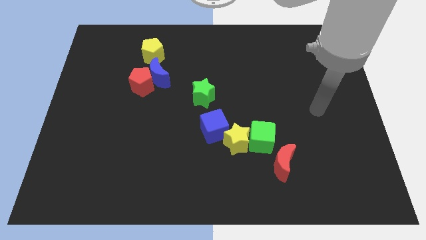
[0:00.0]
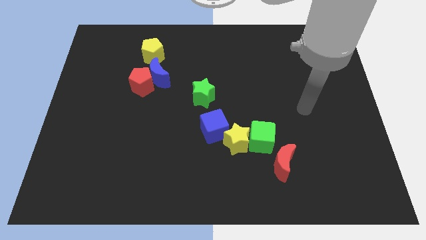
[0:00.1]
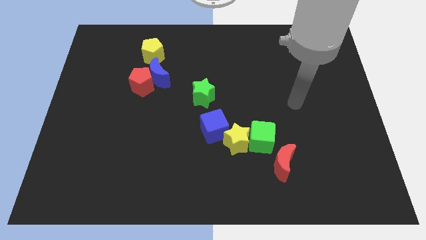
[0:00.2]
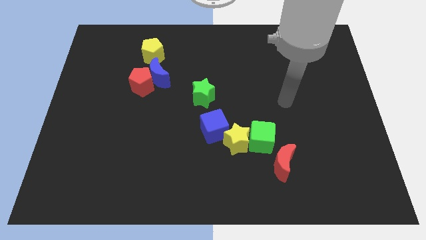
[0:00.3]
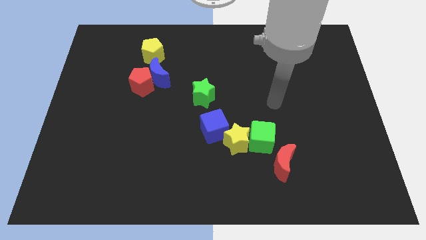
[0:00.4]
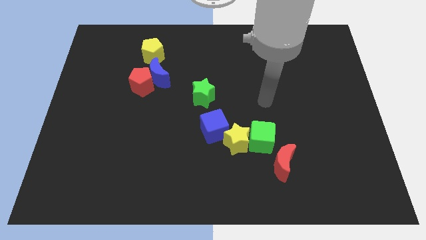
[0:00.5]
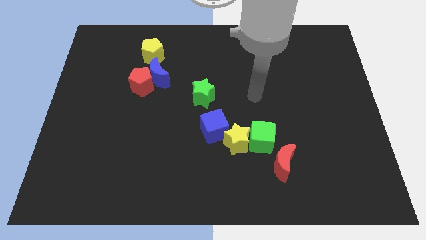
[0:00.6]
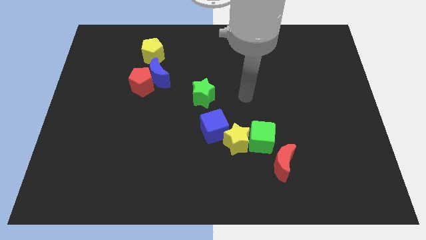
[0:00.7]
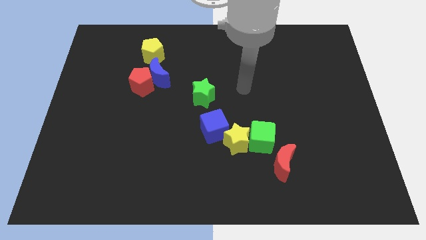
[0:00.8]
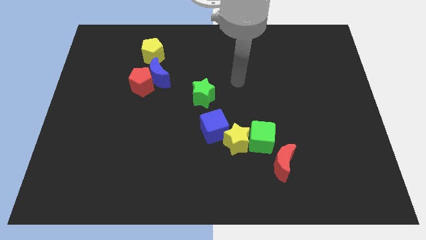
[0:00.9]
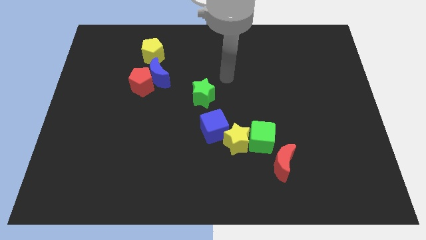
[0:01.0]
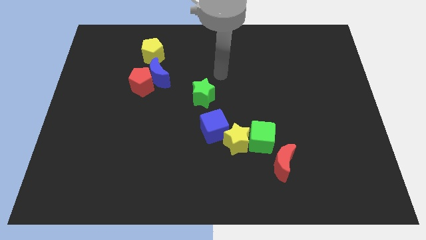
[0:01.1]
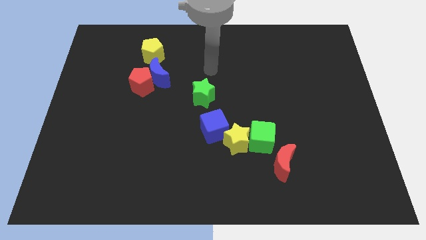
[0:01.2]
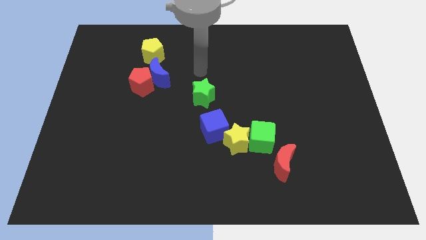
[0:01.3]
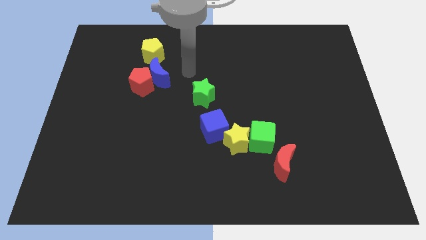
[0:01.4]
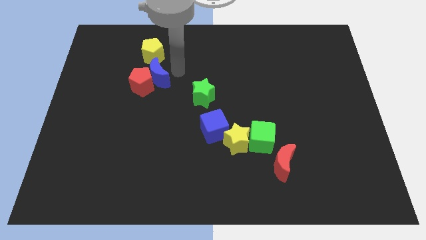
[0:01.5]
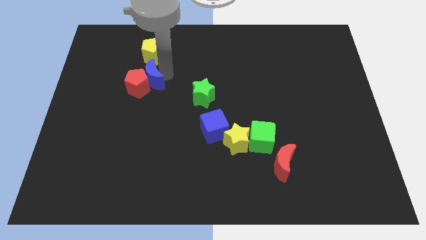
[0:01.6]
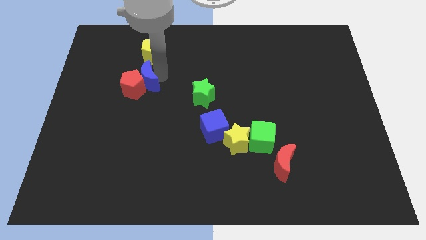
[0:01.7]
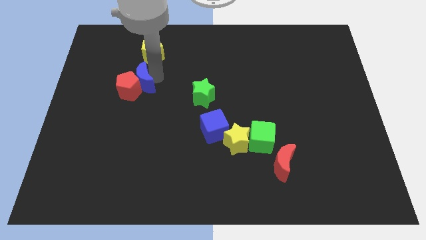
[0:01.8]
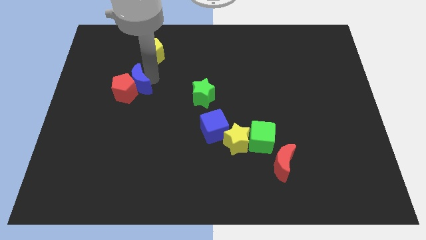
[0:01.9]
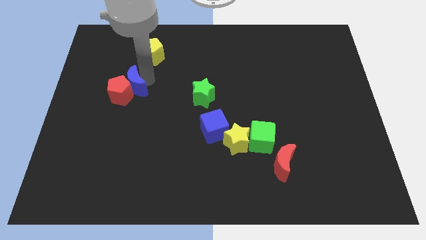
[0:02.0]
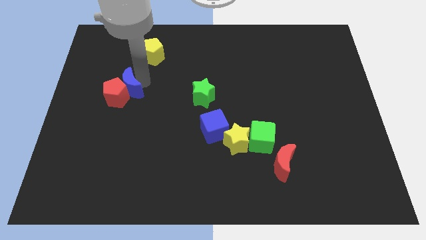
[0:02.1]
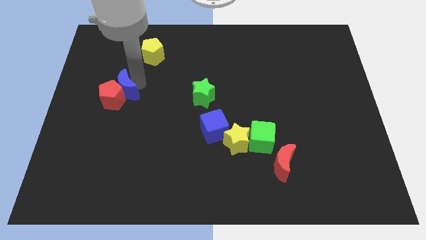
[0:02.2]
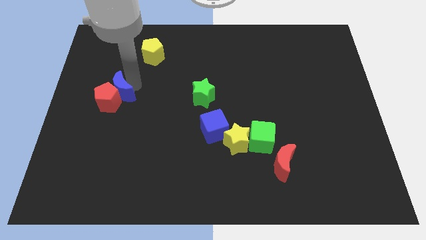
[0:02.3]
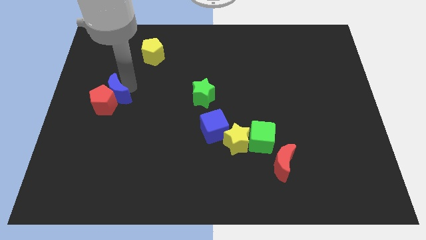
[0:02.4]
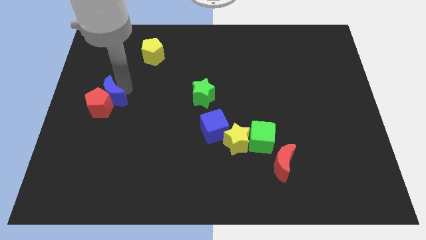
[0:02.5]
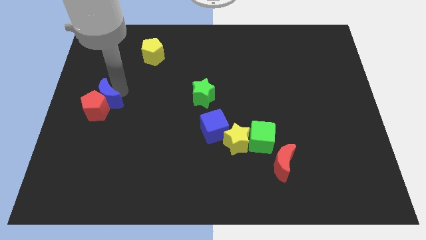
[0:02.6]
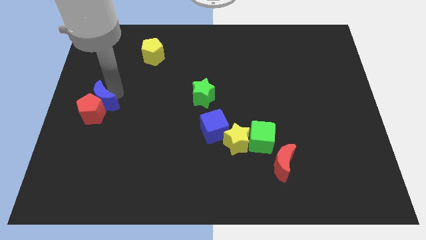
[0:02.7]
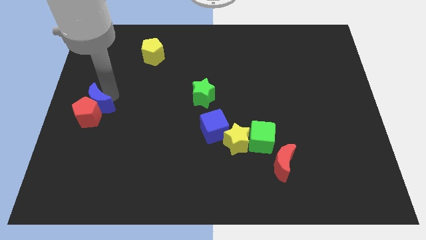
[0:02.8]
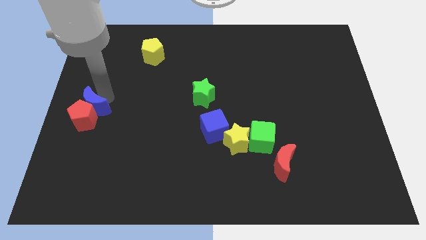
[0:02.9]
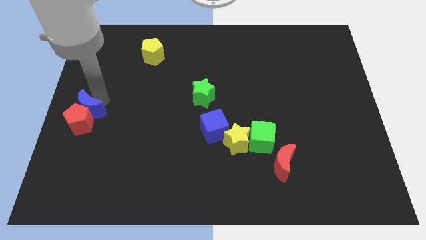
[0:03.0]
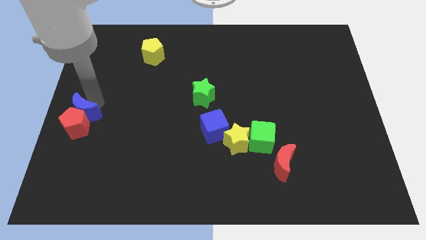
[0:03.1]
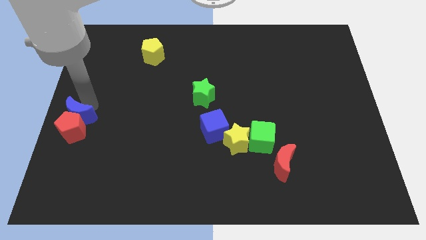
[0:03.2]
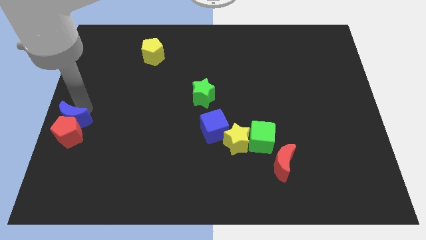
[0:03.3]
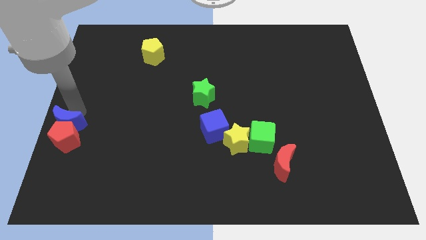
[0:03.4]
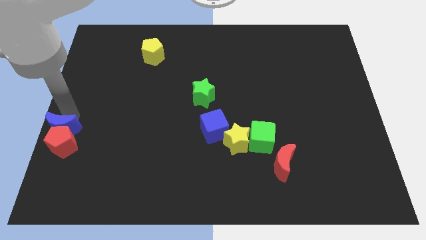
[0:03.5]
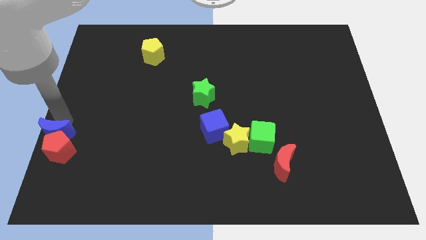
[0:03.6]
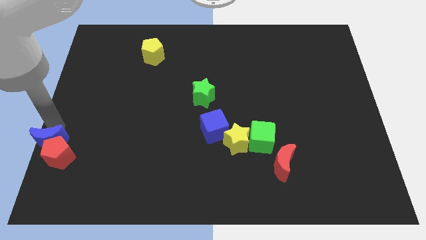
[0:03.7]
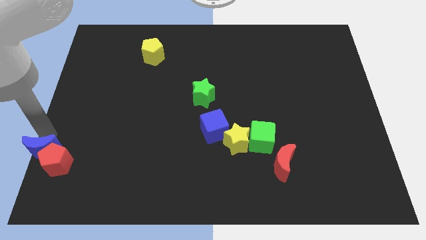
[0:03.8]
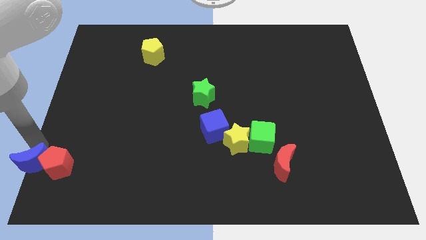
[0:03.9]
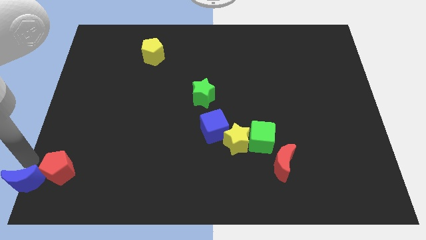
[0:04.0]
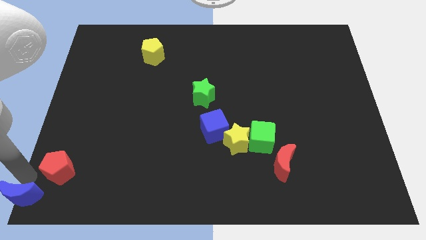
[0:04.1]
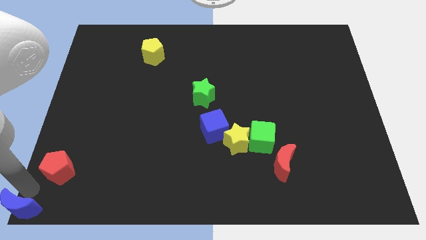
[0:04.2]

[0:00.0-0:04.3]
move the red pentagon away from the blue moon

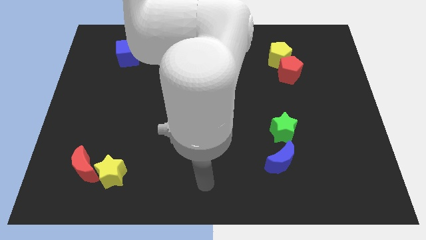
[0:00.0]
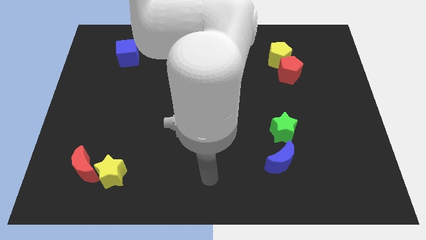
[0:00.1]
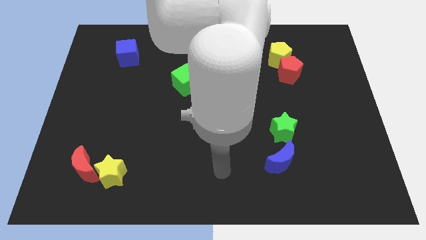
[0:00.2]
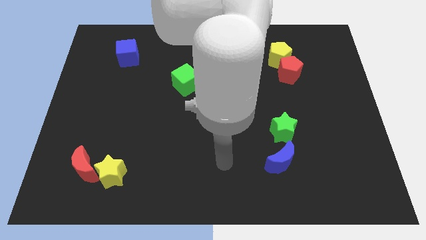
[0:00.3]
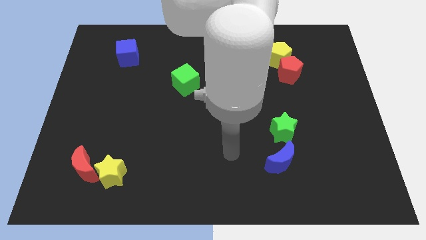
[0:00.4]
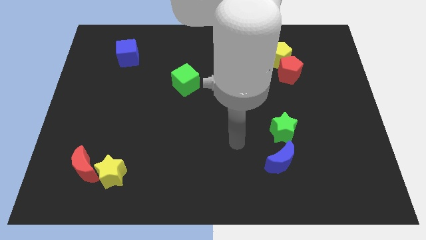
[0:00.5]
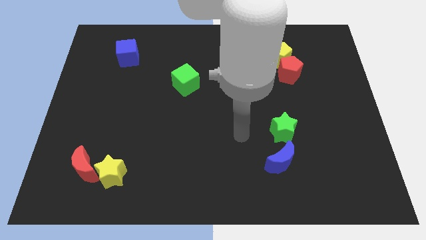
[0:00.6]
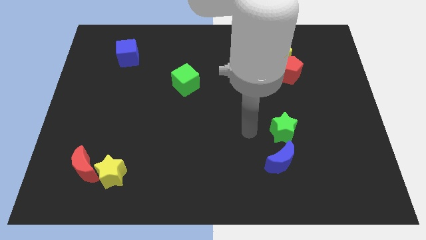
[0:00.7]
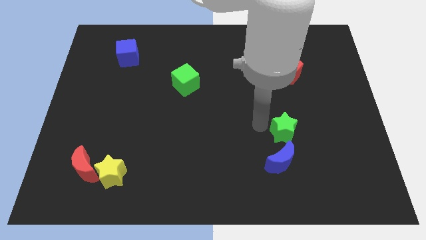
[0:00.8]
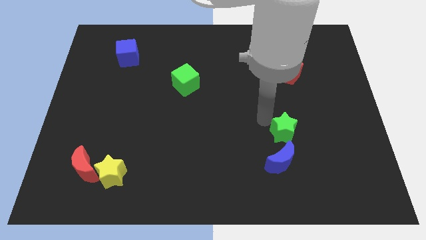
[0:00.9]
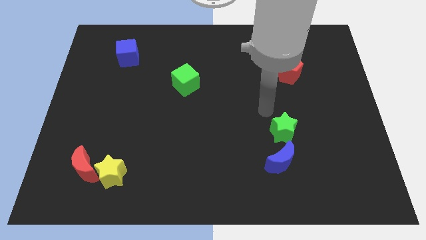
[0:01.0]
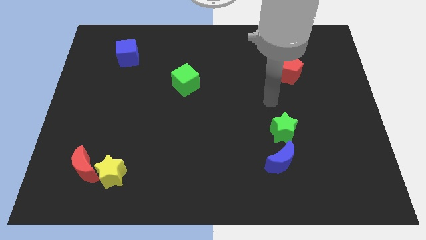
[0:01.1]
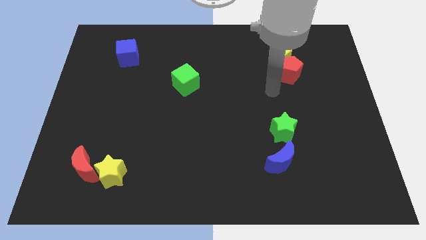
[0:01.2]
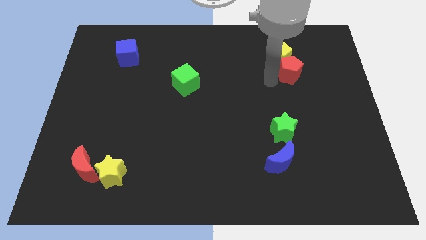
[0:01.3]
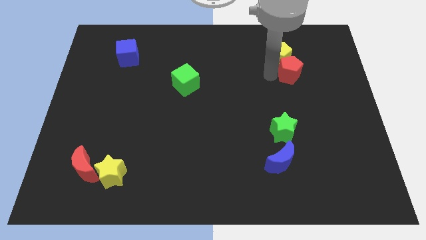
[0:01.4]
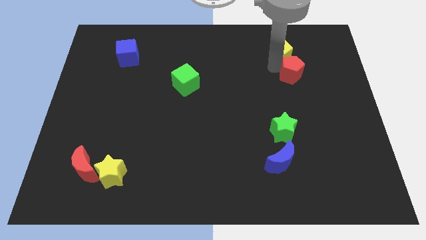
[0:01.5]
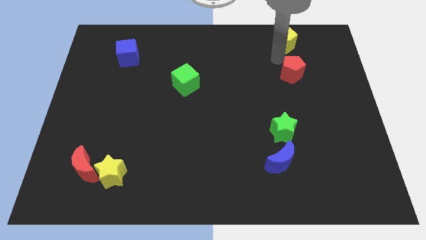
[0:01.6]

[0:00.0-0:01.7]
separate the red pentagon from the yellow pentagon

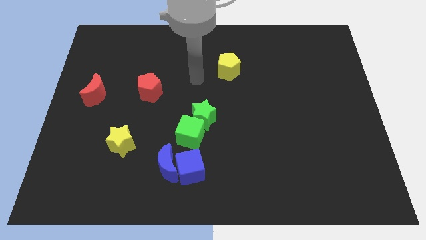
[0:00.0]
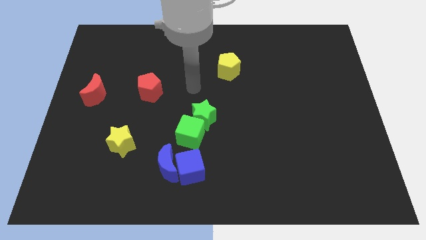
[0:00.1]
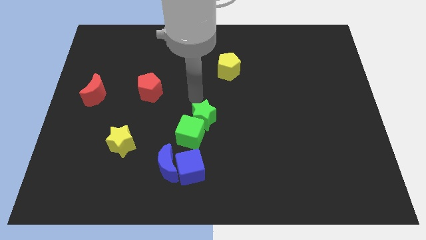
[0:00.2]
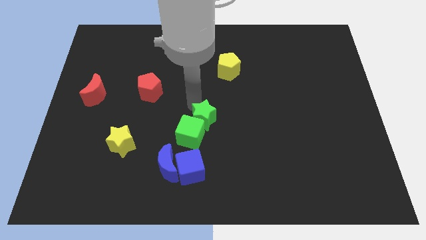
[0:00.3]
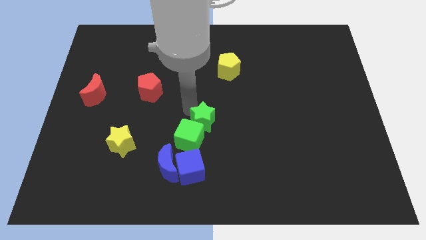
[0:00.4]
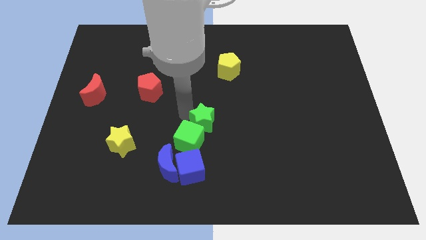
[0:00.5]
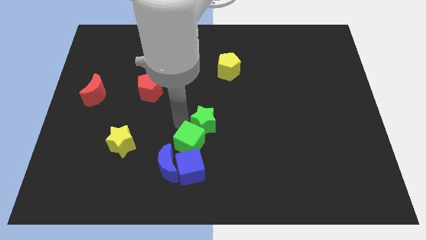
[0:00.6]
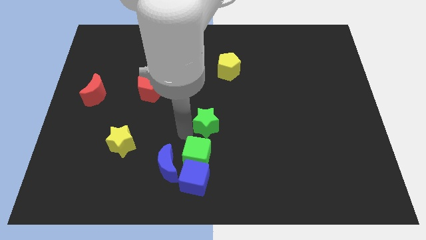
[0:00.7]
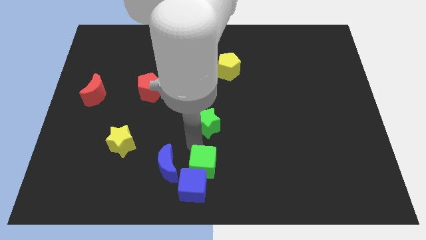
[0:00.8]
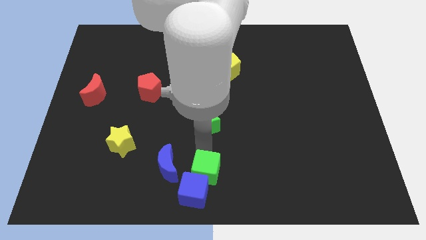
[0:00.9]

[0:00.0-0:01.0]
pull the green star apart from the green cube

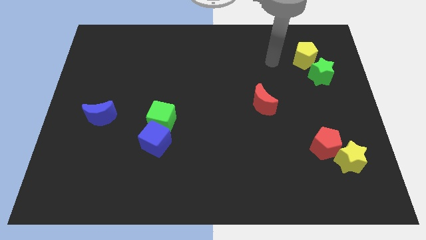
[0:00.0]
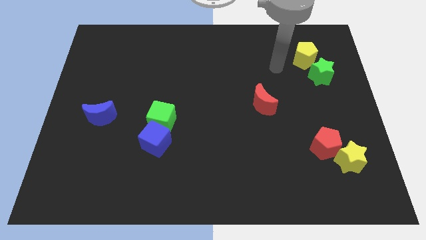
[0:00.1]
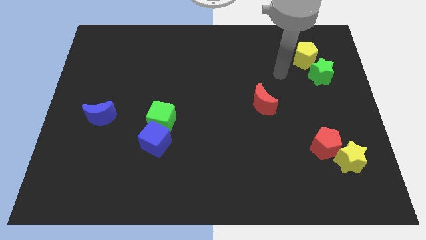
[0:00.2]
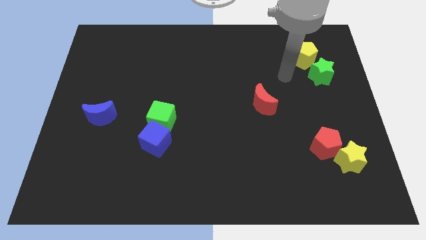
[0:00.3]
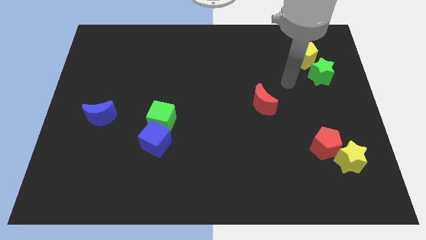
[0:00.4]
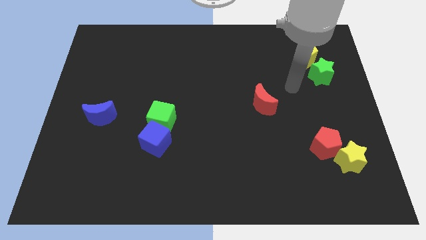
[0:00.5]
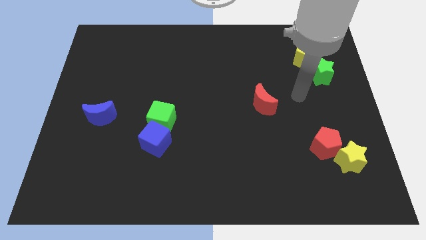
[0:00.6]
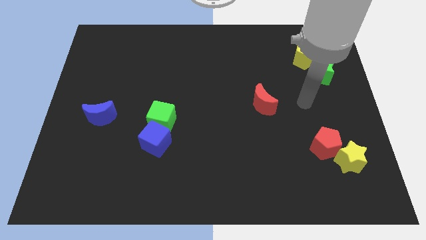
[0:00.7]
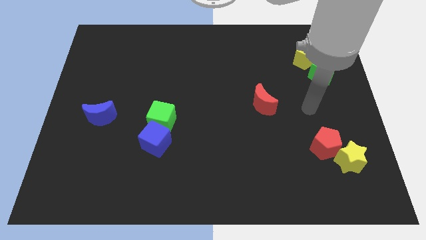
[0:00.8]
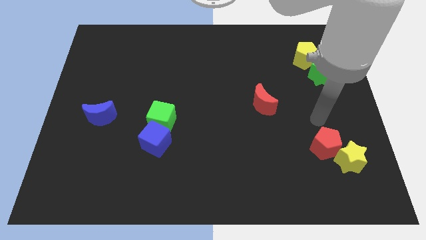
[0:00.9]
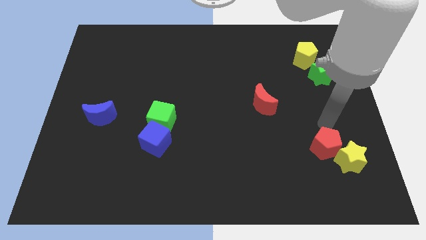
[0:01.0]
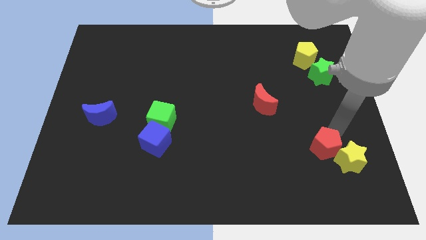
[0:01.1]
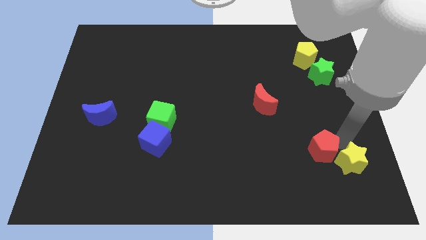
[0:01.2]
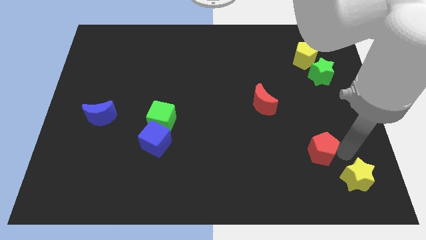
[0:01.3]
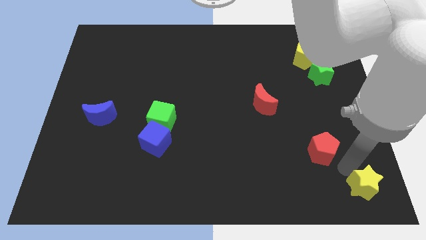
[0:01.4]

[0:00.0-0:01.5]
separate the red pentagon from the yellow star

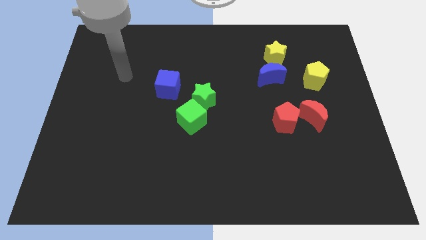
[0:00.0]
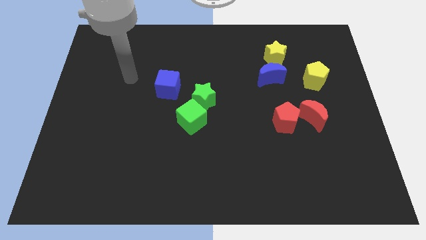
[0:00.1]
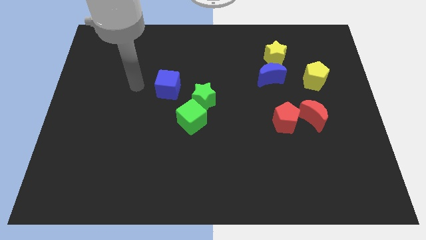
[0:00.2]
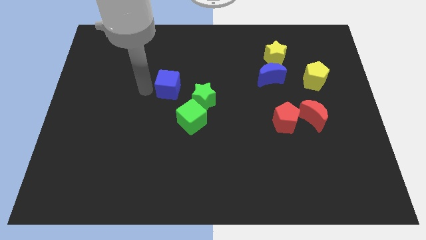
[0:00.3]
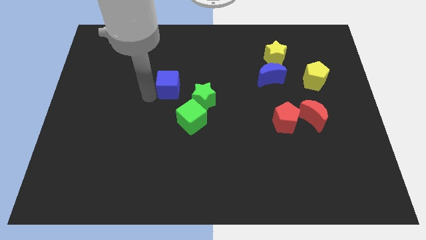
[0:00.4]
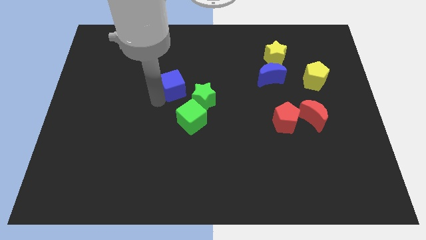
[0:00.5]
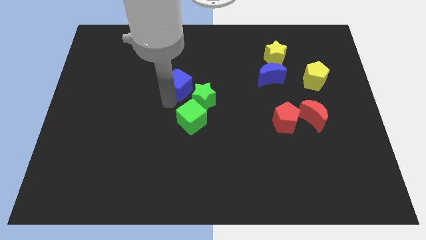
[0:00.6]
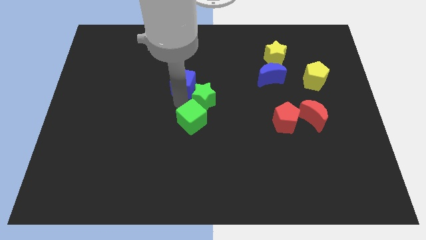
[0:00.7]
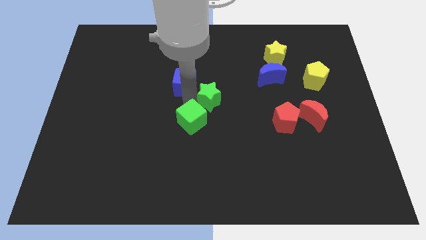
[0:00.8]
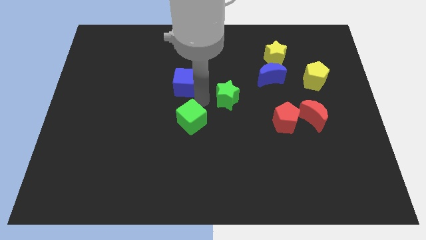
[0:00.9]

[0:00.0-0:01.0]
move the green cube away from the green star
